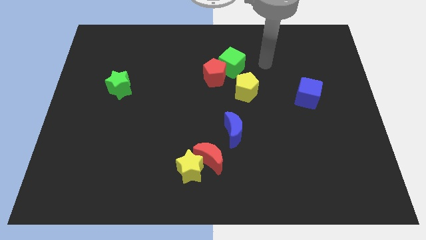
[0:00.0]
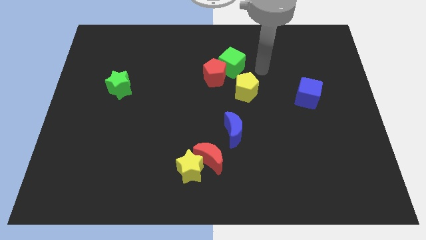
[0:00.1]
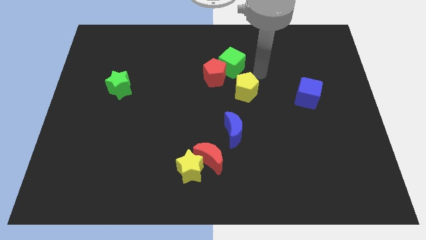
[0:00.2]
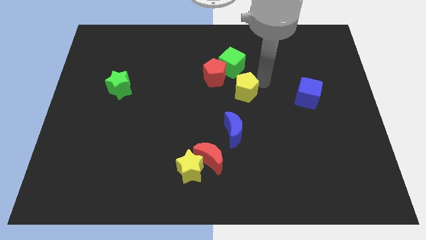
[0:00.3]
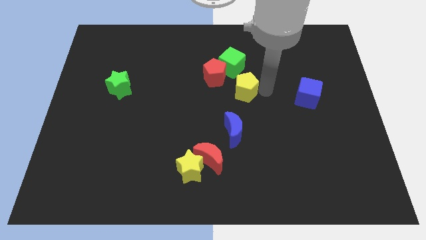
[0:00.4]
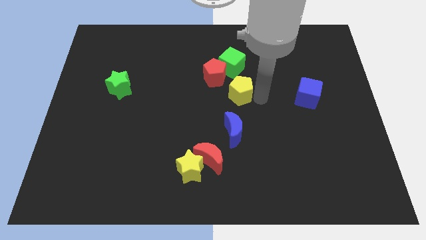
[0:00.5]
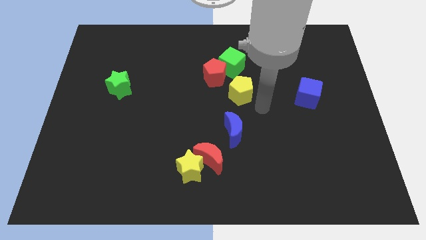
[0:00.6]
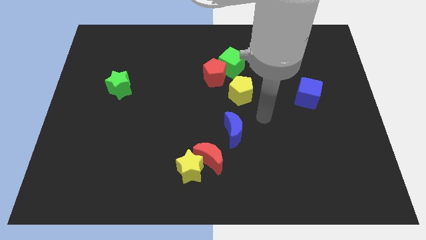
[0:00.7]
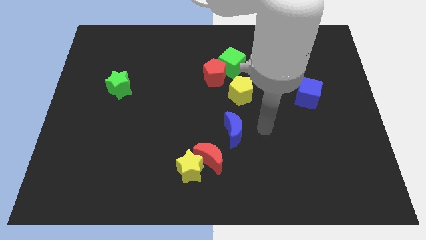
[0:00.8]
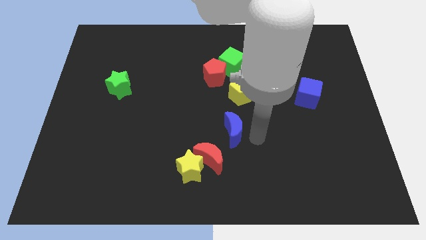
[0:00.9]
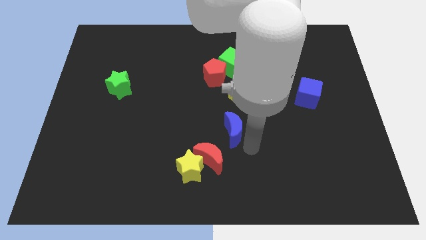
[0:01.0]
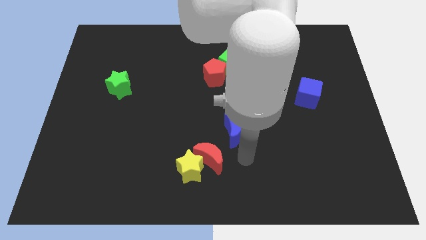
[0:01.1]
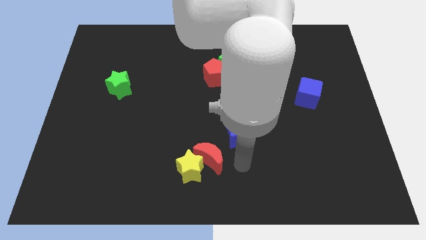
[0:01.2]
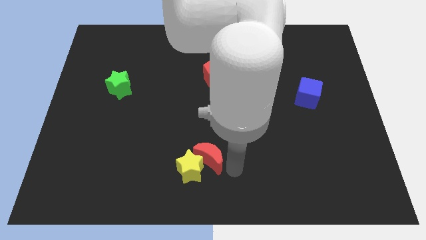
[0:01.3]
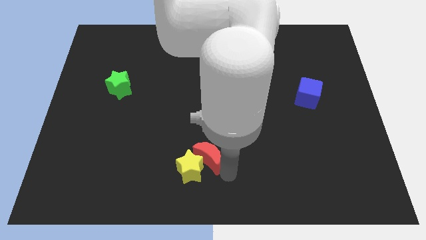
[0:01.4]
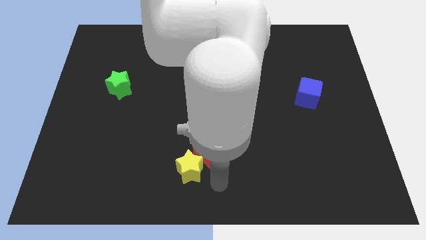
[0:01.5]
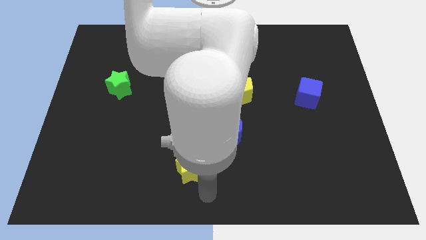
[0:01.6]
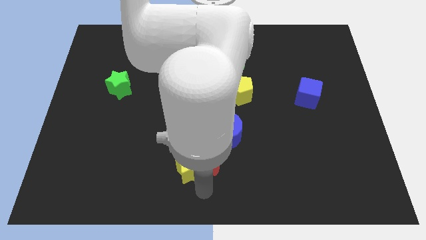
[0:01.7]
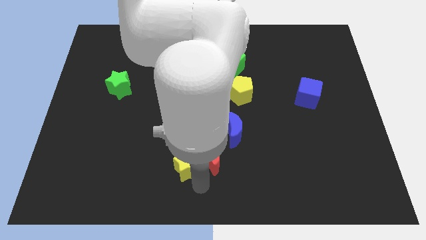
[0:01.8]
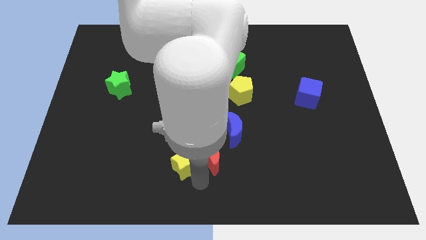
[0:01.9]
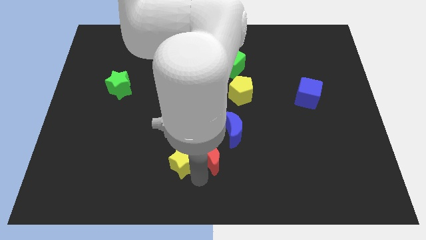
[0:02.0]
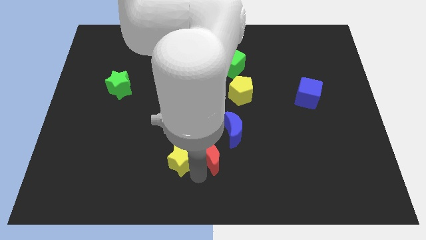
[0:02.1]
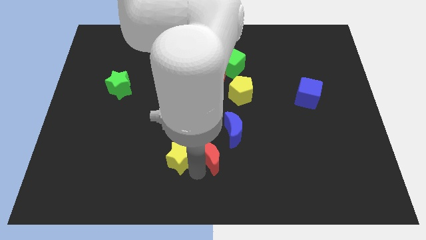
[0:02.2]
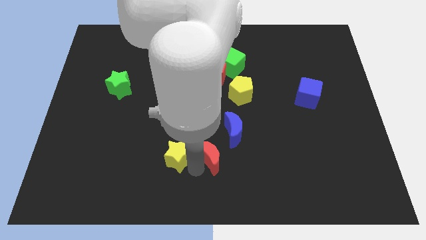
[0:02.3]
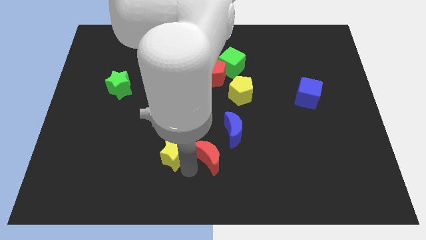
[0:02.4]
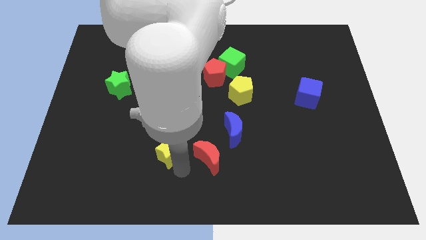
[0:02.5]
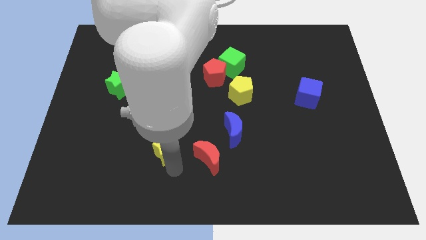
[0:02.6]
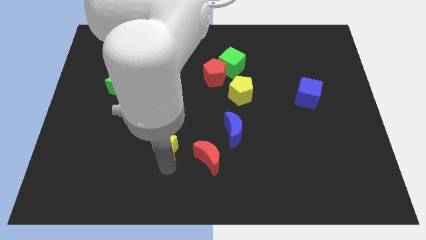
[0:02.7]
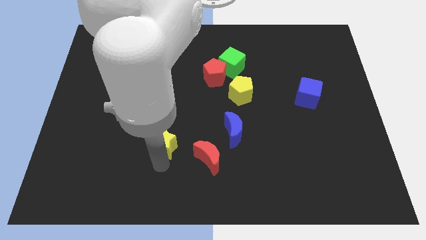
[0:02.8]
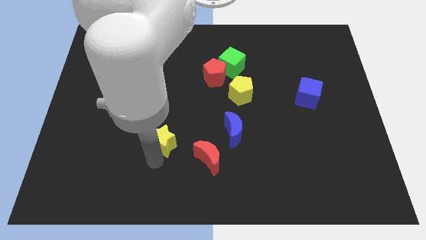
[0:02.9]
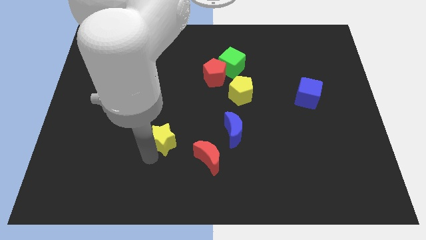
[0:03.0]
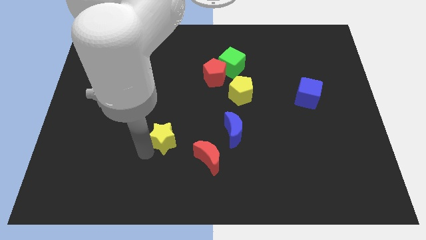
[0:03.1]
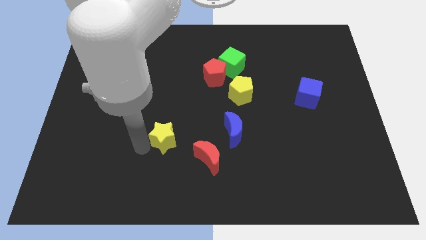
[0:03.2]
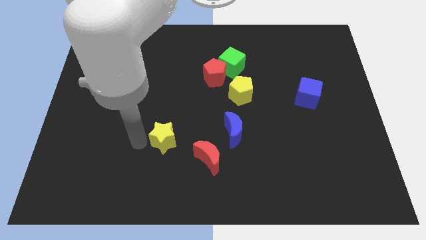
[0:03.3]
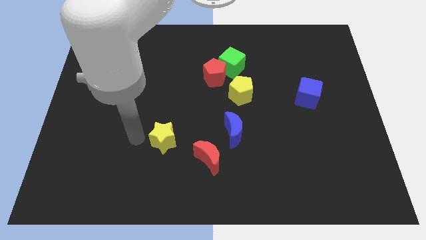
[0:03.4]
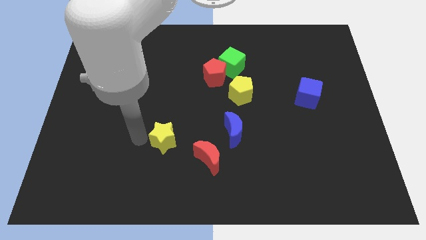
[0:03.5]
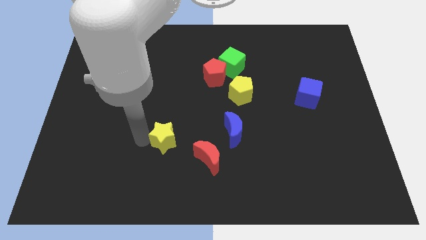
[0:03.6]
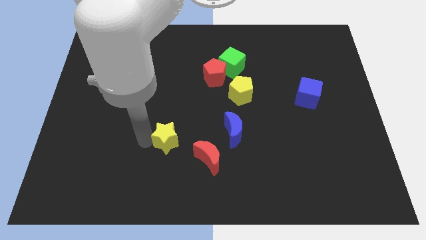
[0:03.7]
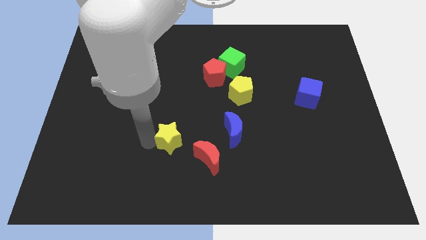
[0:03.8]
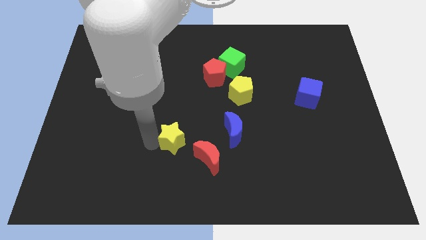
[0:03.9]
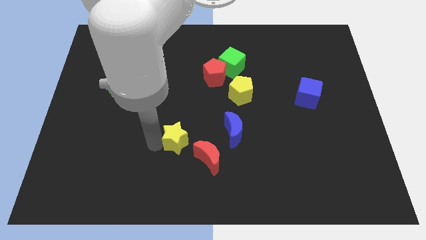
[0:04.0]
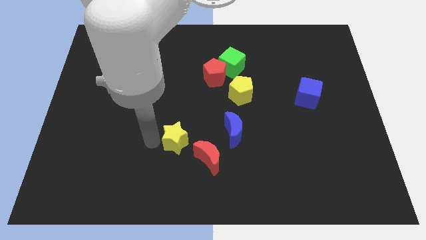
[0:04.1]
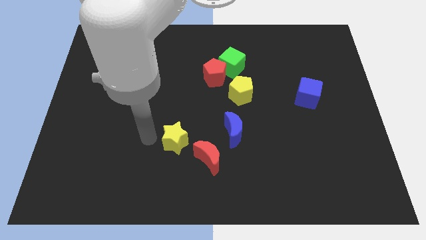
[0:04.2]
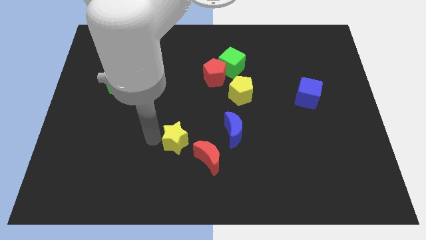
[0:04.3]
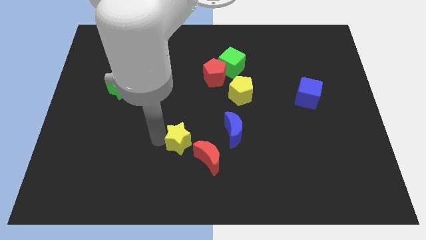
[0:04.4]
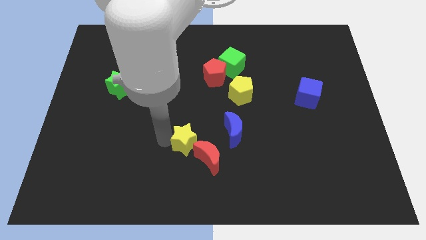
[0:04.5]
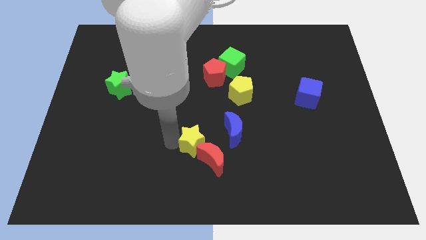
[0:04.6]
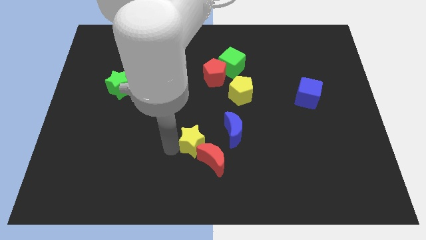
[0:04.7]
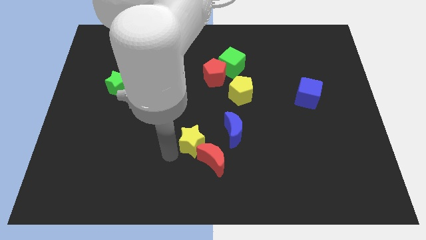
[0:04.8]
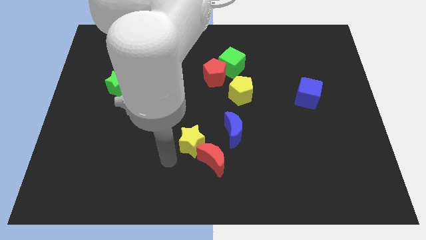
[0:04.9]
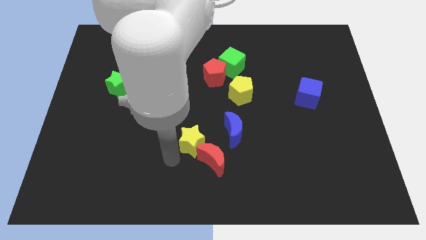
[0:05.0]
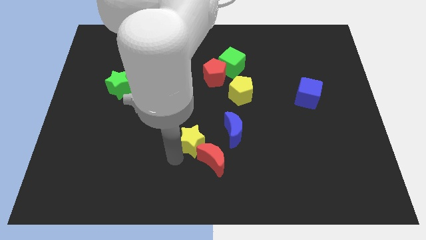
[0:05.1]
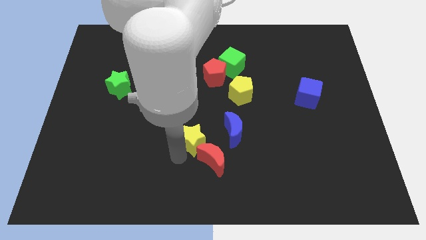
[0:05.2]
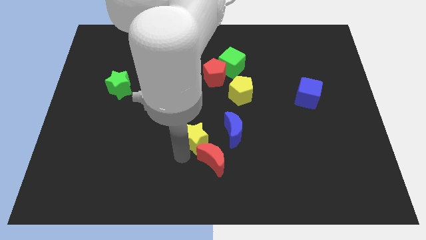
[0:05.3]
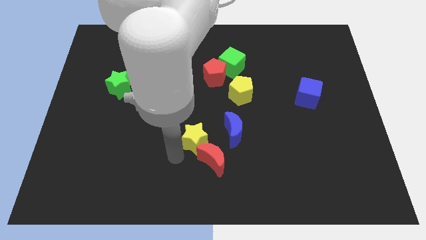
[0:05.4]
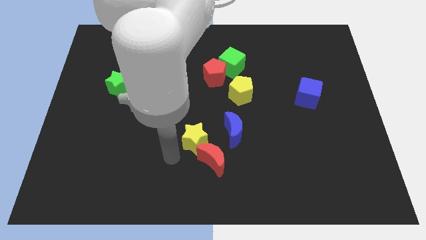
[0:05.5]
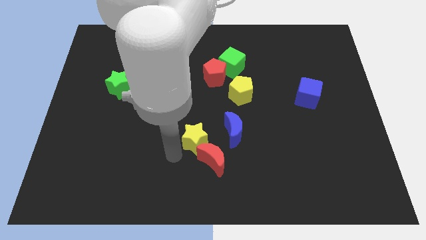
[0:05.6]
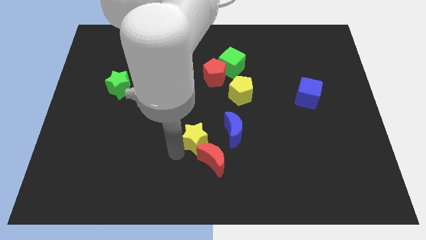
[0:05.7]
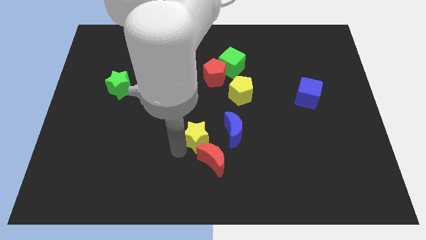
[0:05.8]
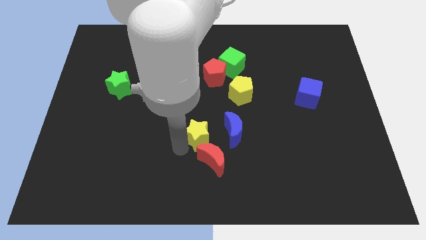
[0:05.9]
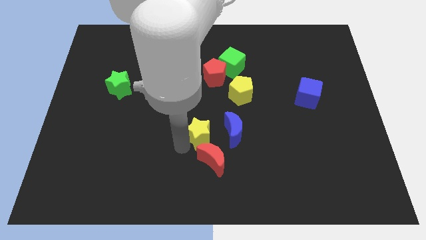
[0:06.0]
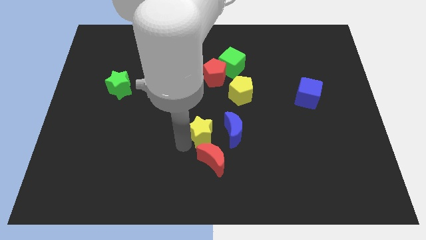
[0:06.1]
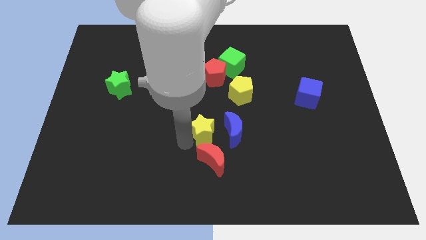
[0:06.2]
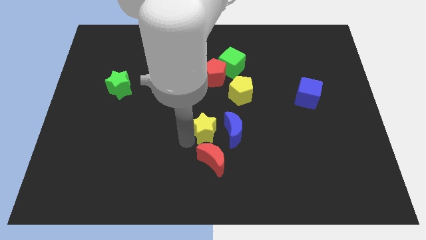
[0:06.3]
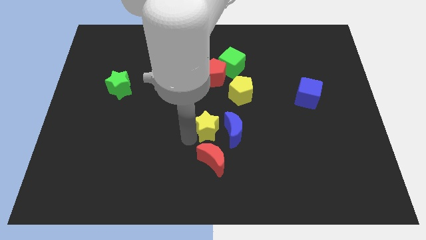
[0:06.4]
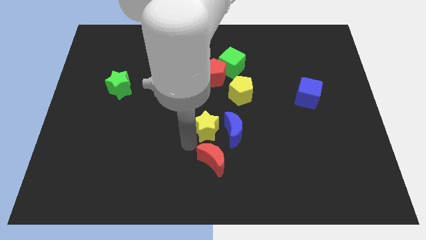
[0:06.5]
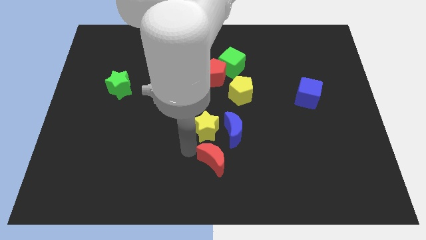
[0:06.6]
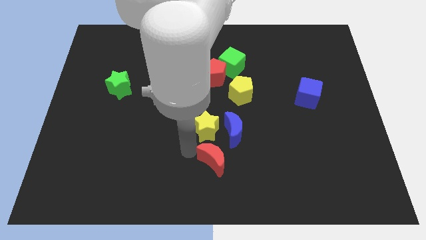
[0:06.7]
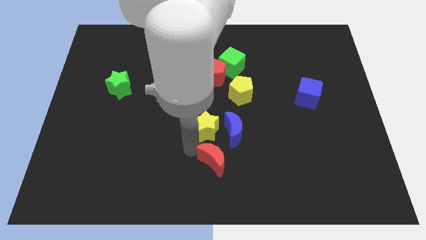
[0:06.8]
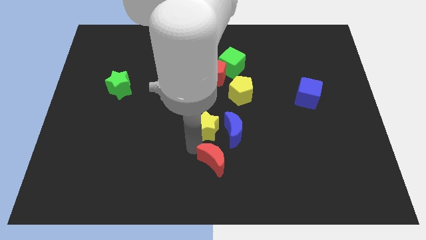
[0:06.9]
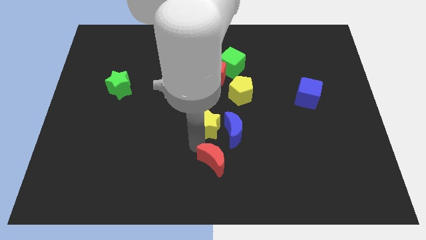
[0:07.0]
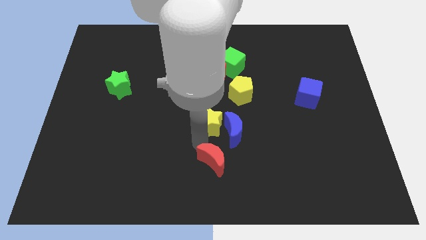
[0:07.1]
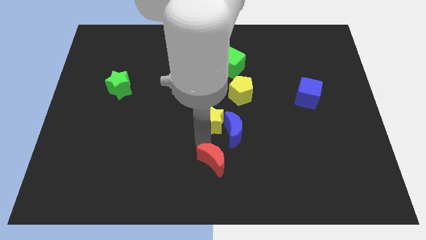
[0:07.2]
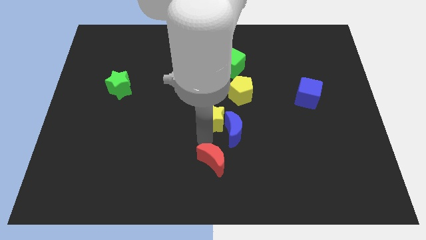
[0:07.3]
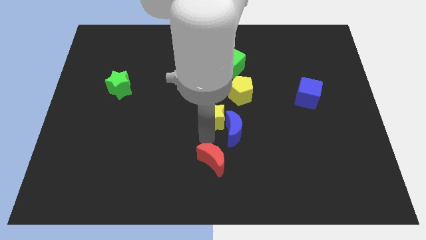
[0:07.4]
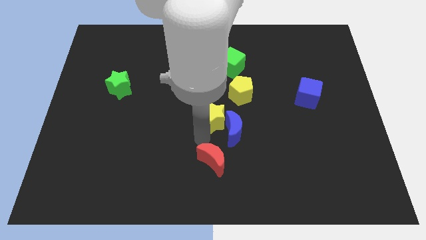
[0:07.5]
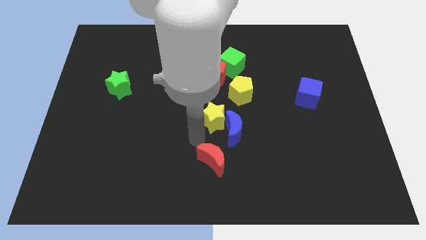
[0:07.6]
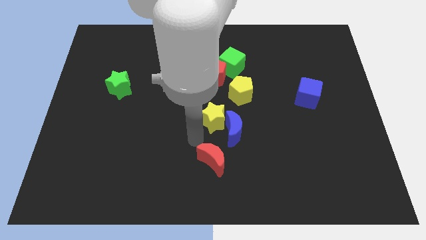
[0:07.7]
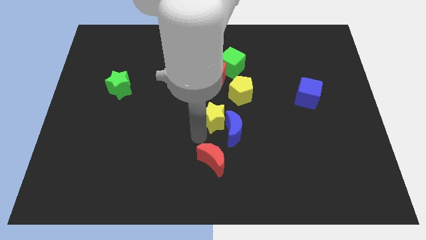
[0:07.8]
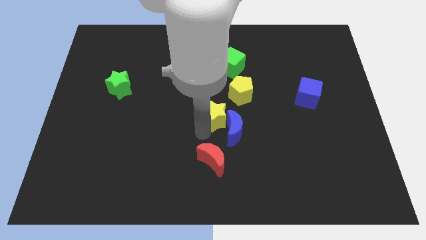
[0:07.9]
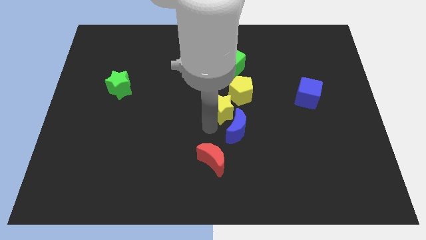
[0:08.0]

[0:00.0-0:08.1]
slide the yellow star to the bottom side of the green cube
